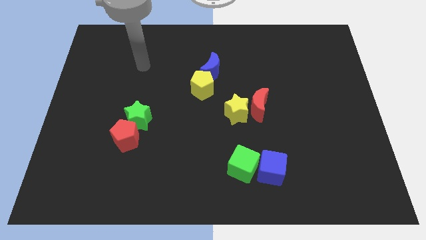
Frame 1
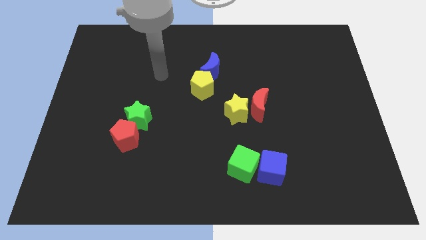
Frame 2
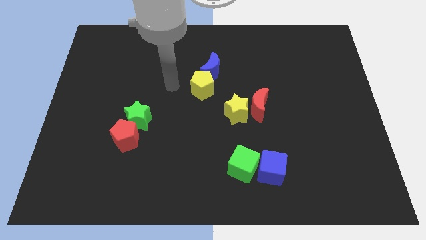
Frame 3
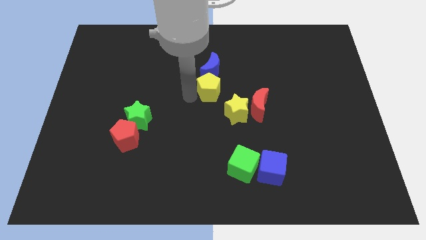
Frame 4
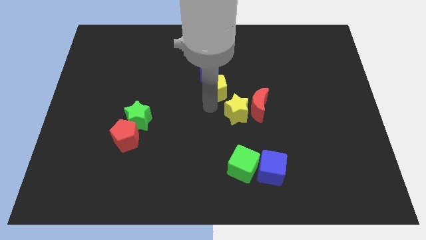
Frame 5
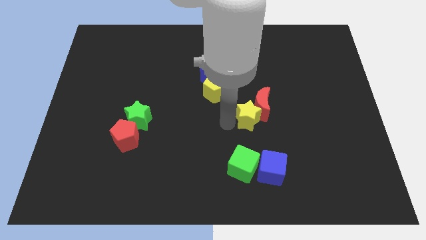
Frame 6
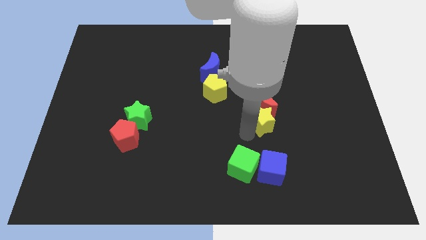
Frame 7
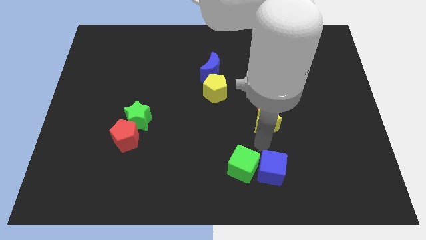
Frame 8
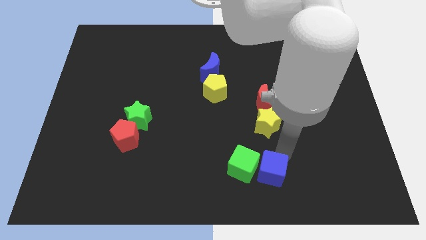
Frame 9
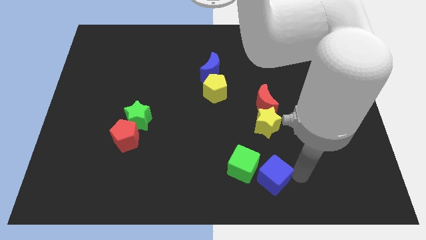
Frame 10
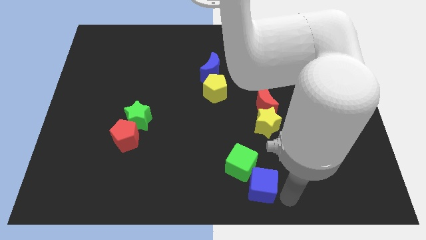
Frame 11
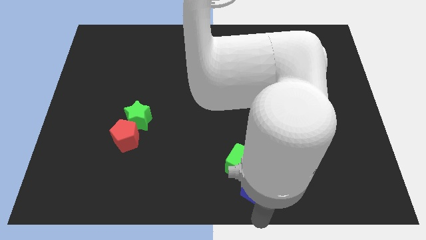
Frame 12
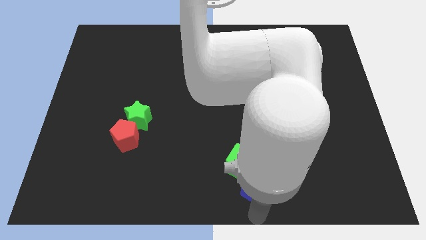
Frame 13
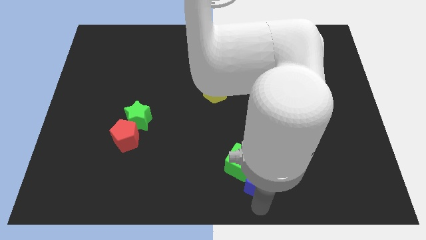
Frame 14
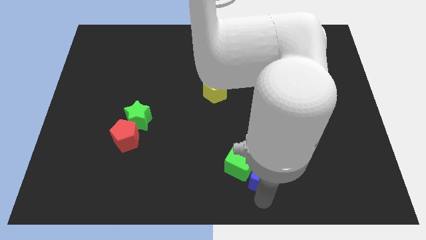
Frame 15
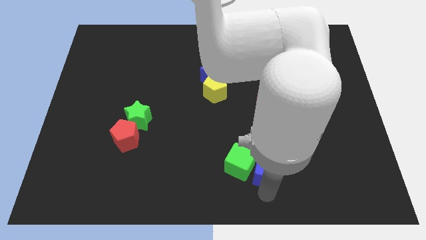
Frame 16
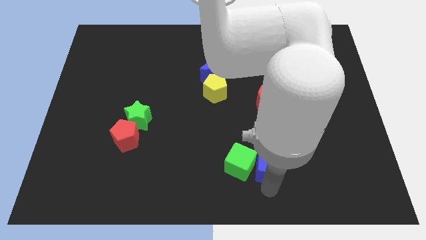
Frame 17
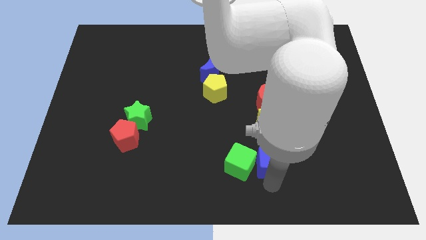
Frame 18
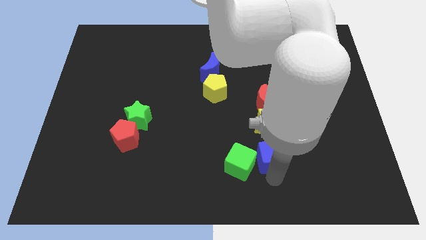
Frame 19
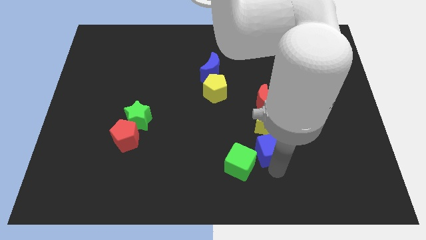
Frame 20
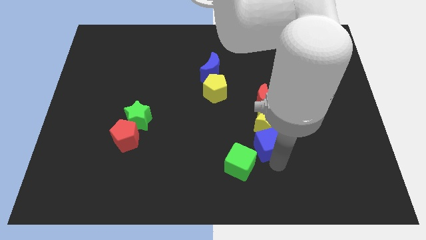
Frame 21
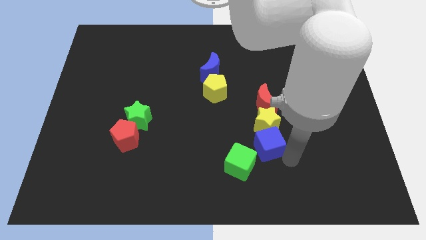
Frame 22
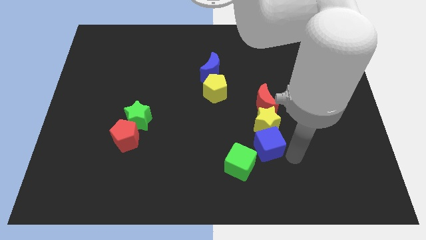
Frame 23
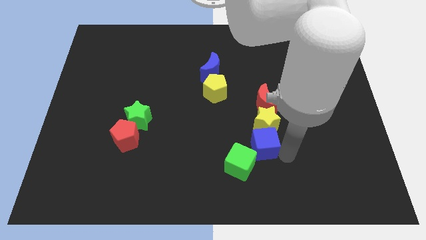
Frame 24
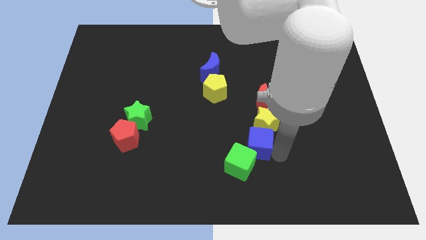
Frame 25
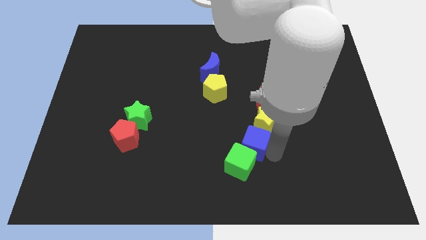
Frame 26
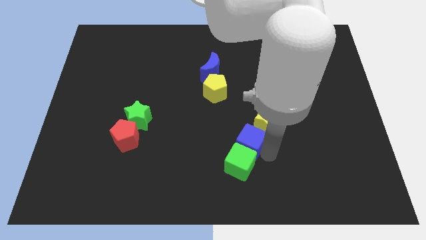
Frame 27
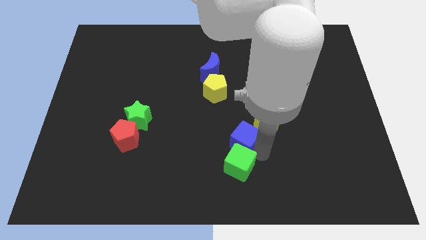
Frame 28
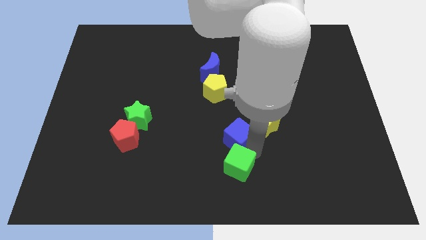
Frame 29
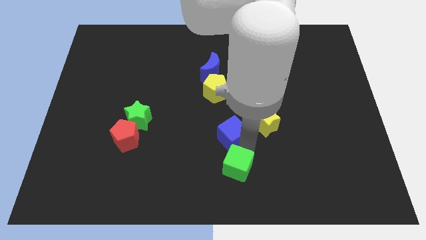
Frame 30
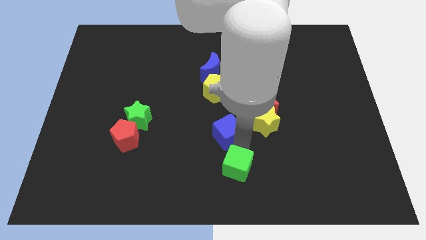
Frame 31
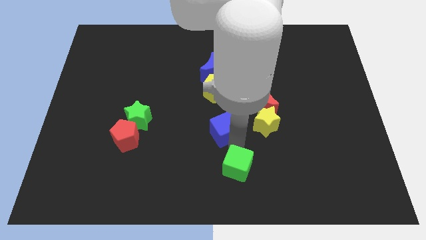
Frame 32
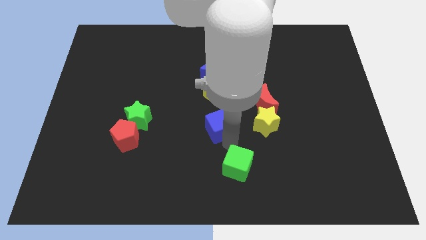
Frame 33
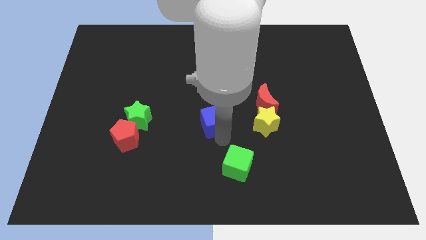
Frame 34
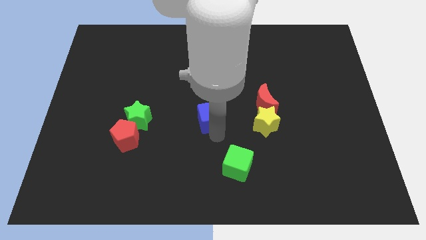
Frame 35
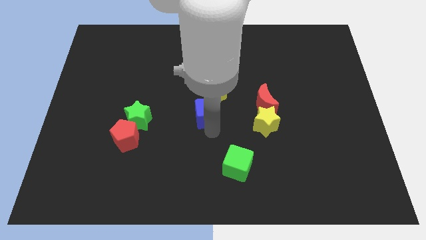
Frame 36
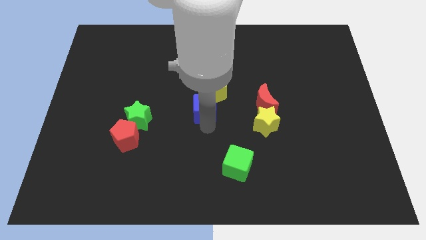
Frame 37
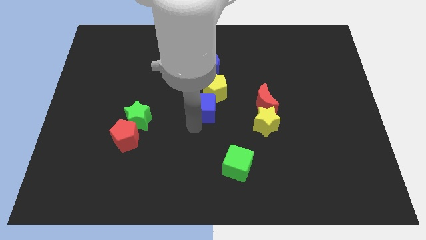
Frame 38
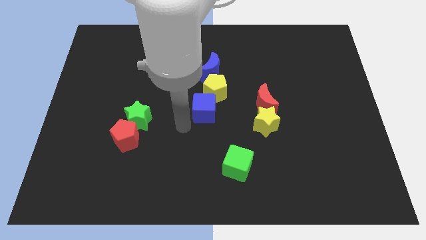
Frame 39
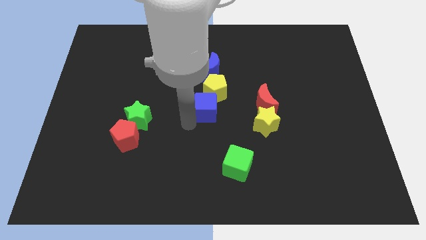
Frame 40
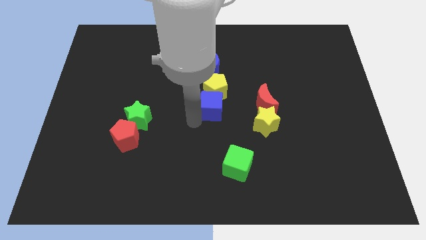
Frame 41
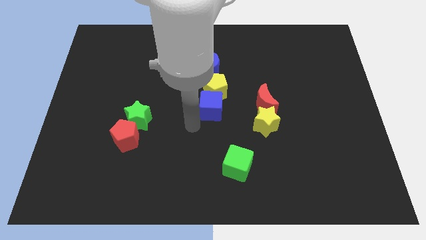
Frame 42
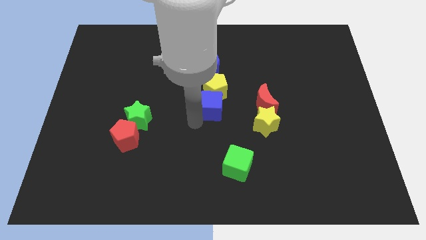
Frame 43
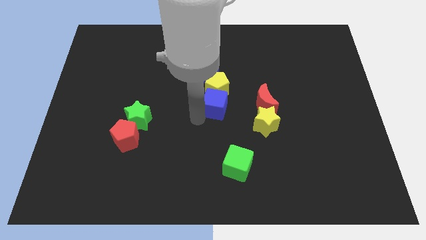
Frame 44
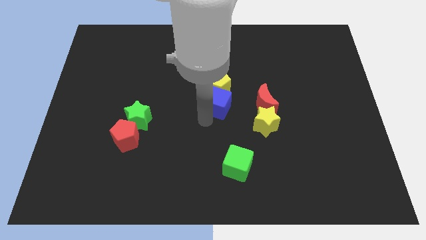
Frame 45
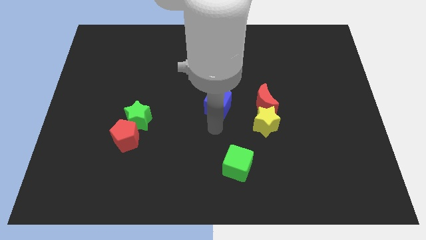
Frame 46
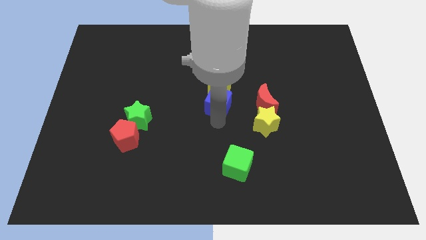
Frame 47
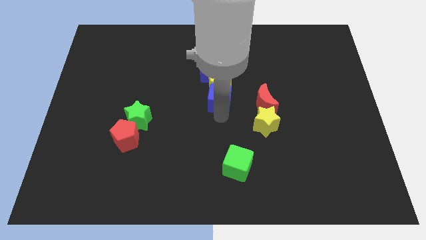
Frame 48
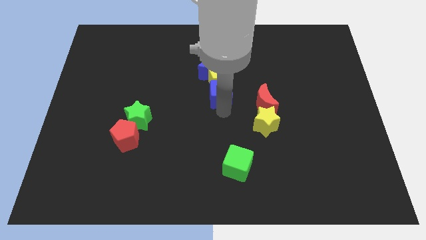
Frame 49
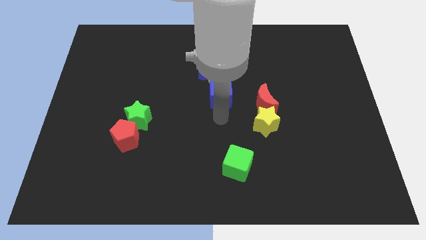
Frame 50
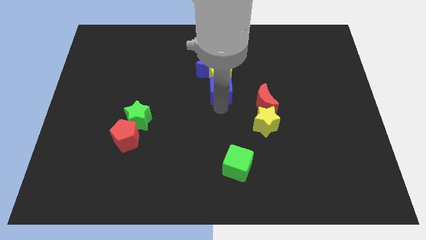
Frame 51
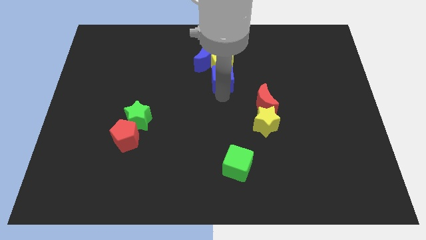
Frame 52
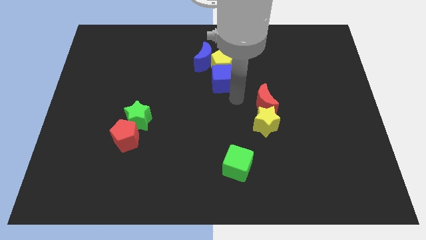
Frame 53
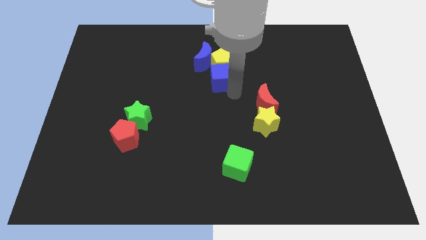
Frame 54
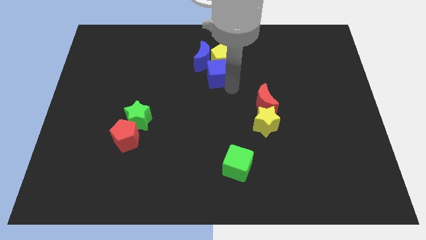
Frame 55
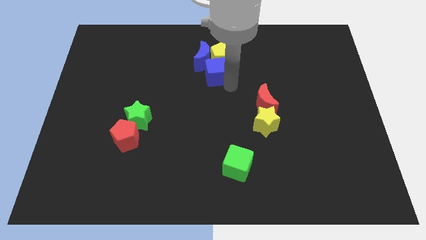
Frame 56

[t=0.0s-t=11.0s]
move the blue cube towards the blue moon

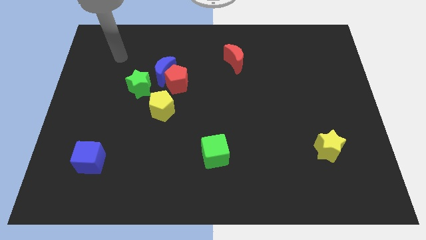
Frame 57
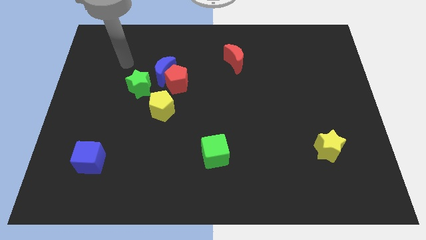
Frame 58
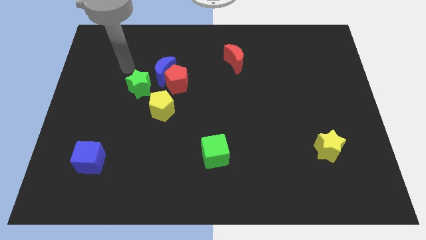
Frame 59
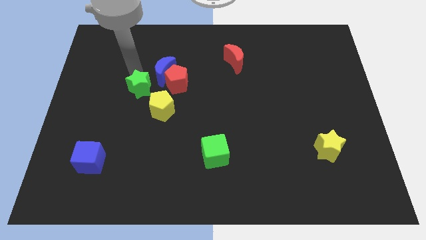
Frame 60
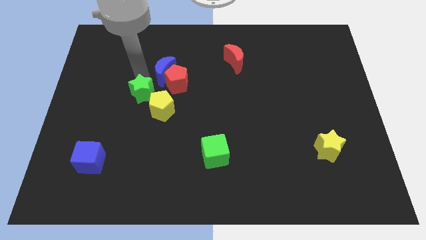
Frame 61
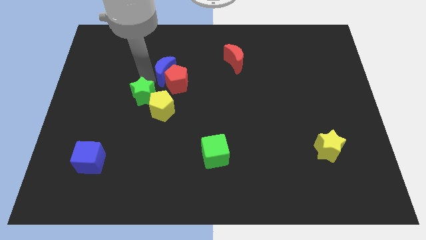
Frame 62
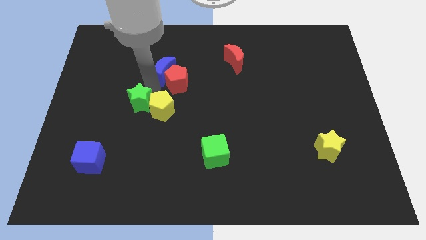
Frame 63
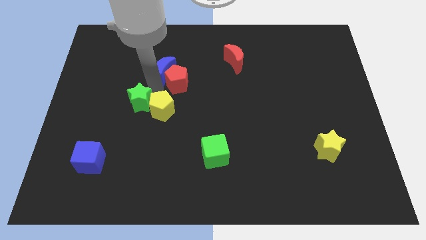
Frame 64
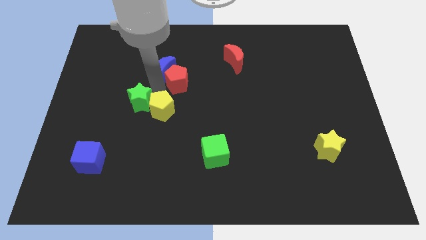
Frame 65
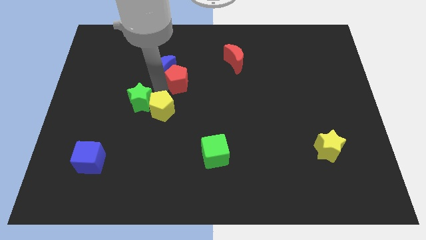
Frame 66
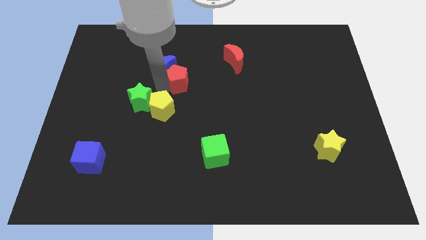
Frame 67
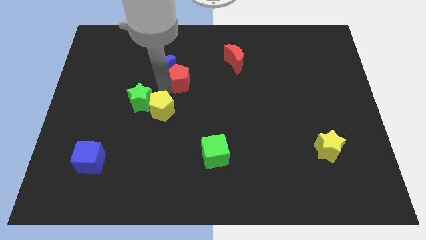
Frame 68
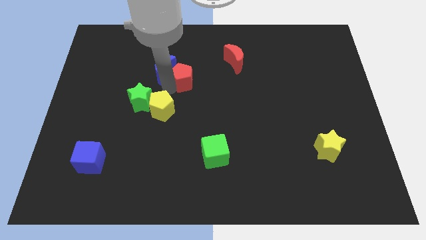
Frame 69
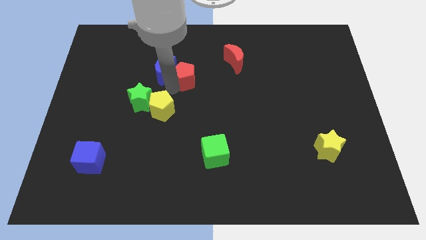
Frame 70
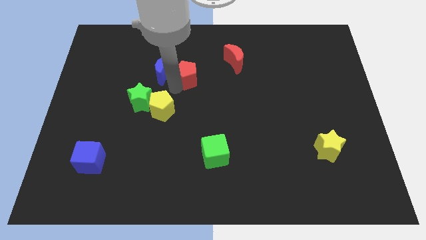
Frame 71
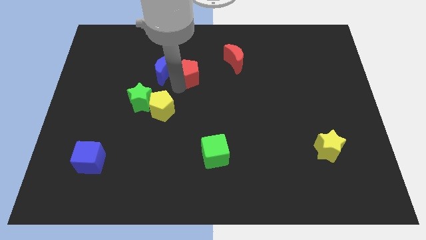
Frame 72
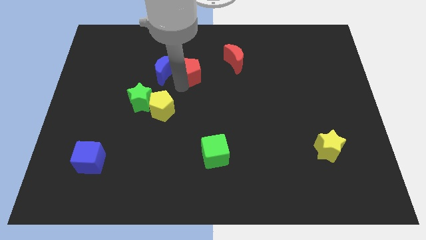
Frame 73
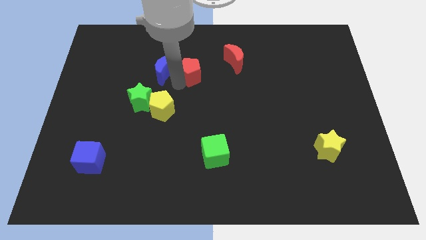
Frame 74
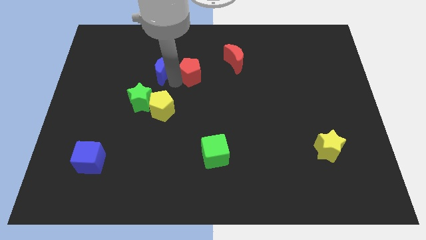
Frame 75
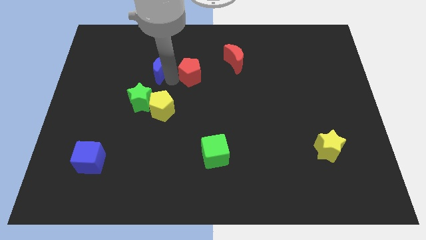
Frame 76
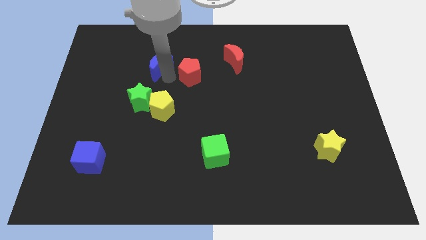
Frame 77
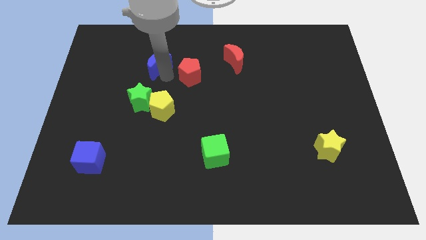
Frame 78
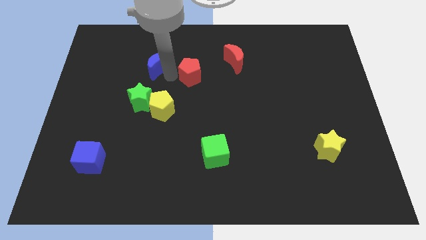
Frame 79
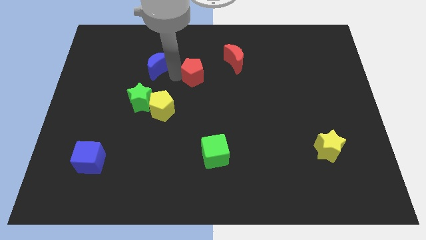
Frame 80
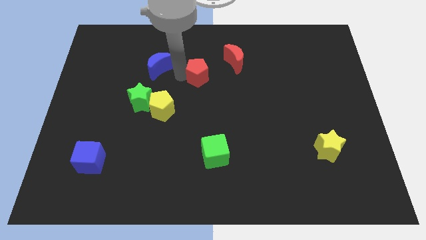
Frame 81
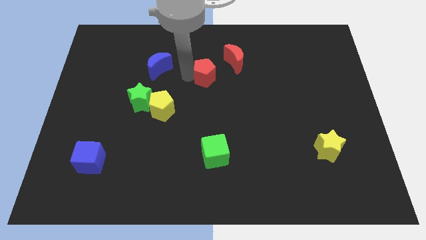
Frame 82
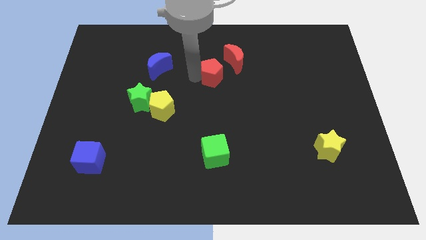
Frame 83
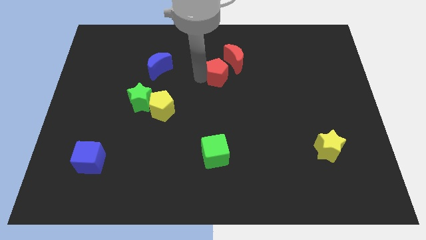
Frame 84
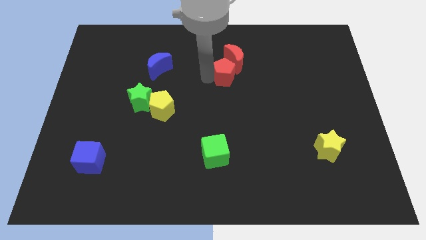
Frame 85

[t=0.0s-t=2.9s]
put the red pentagon next to the red moon
